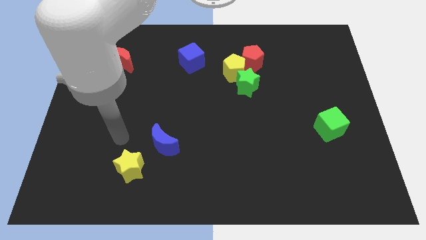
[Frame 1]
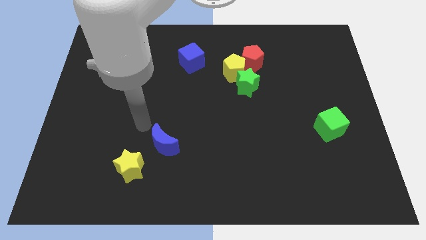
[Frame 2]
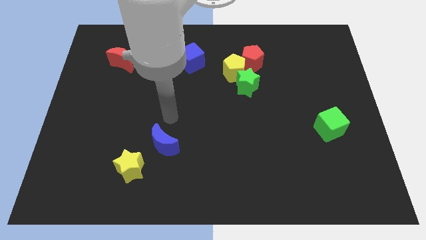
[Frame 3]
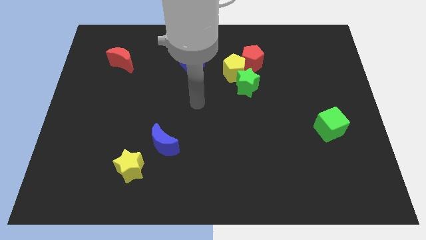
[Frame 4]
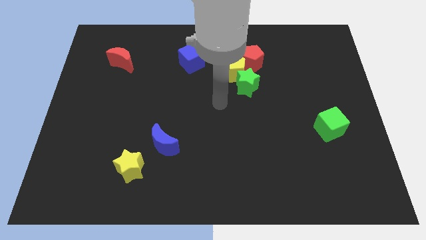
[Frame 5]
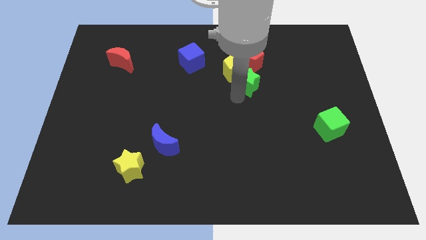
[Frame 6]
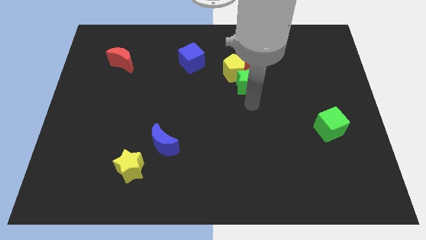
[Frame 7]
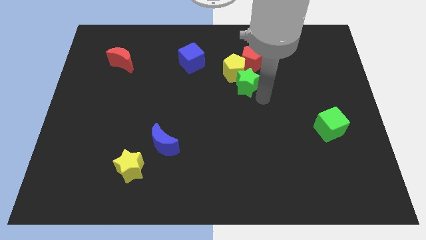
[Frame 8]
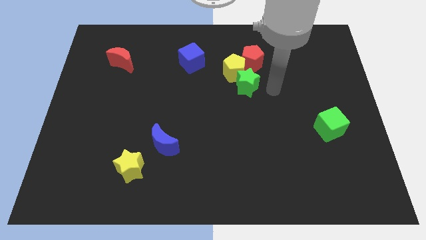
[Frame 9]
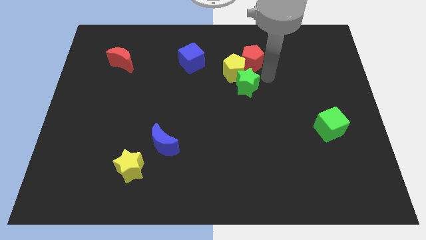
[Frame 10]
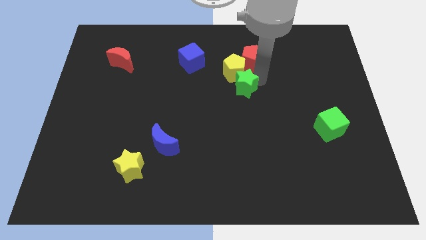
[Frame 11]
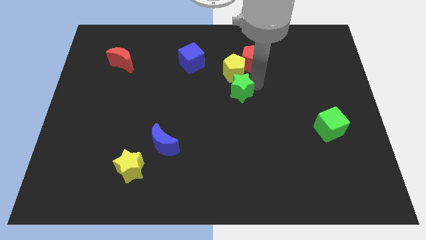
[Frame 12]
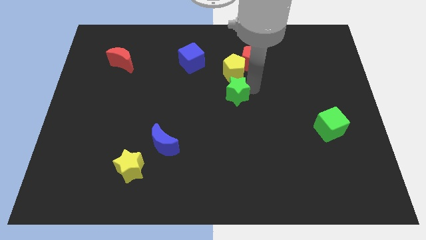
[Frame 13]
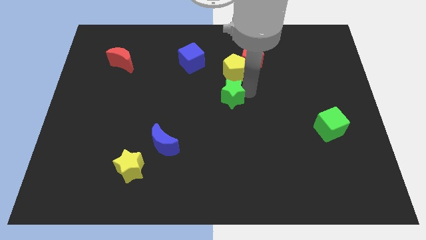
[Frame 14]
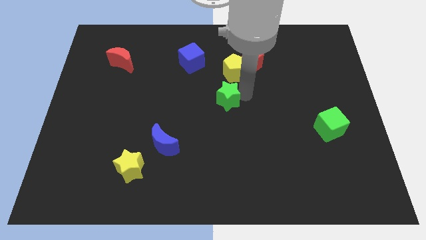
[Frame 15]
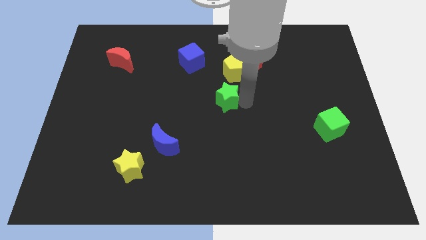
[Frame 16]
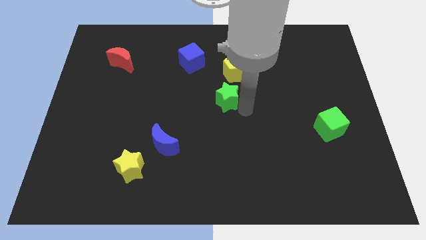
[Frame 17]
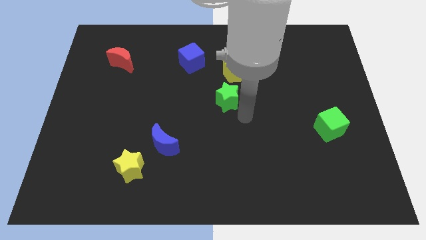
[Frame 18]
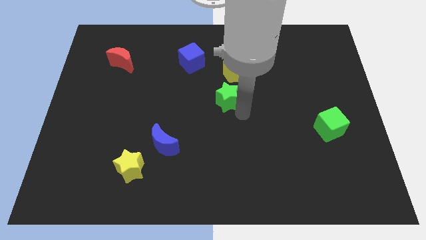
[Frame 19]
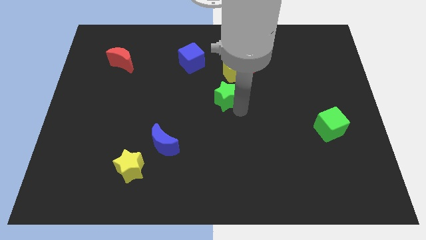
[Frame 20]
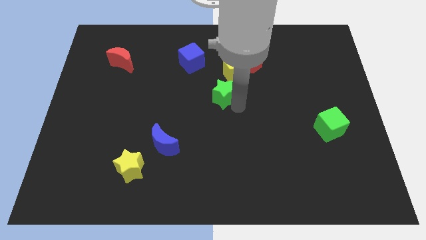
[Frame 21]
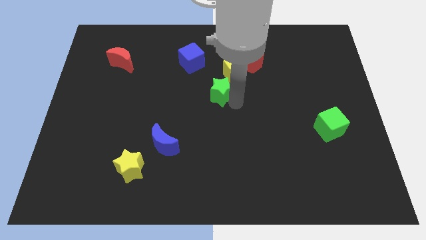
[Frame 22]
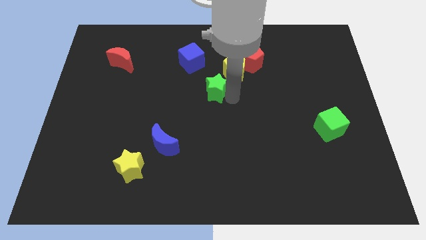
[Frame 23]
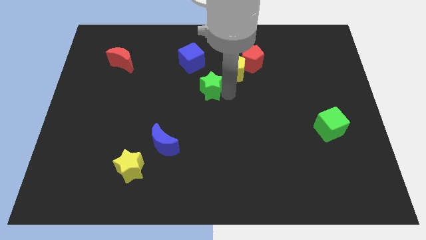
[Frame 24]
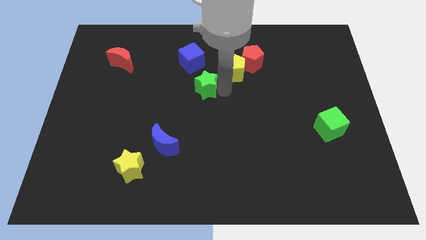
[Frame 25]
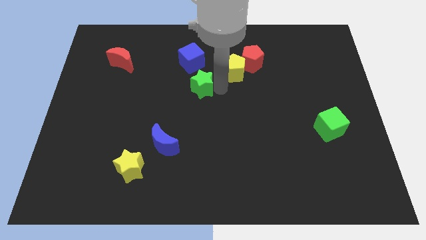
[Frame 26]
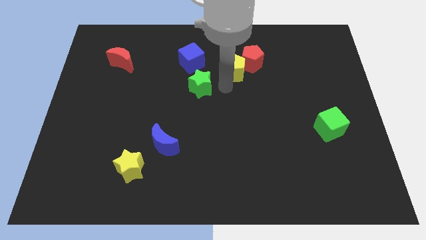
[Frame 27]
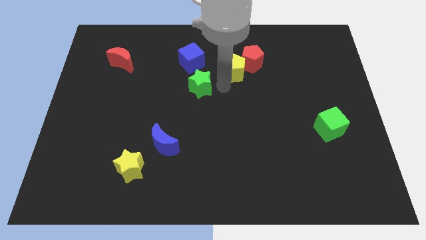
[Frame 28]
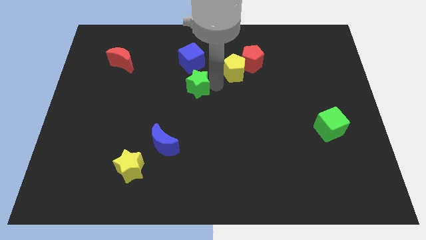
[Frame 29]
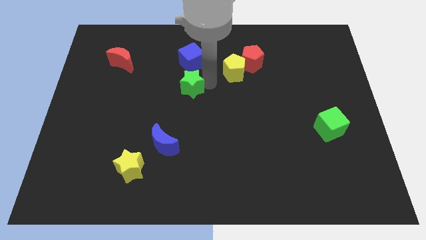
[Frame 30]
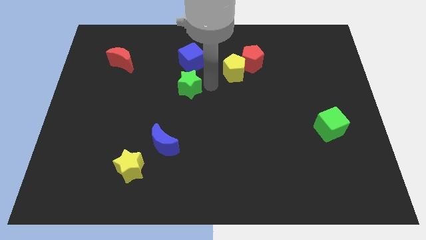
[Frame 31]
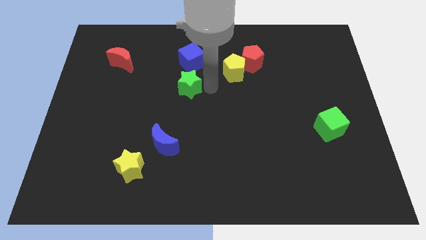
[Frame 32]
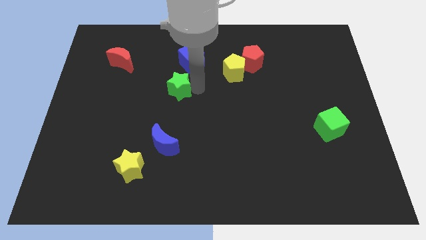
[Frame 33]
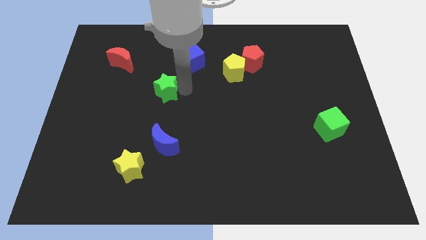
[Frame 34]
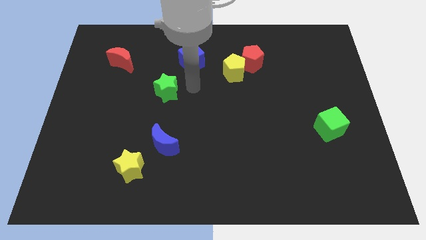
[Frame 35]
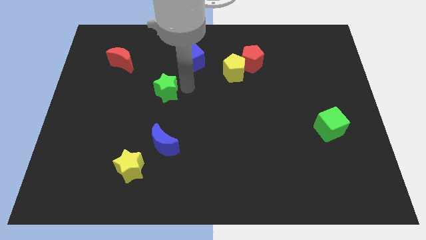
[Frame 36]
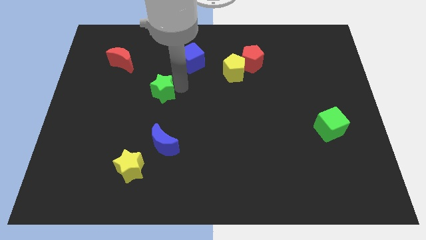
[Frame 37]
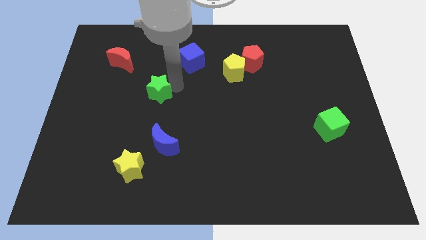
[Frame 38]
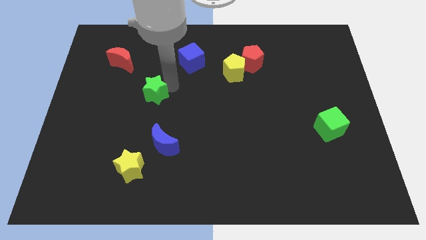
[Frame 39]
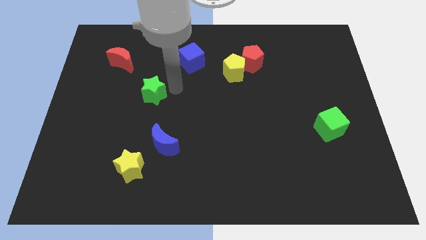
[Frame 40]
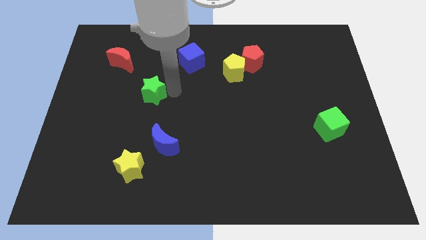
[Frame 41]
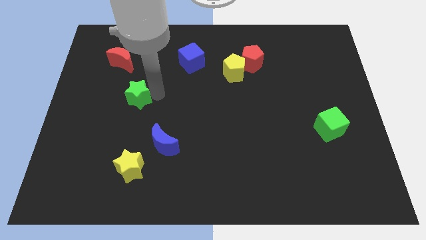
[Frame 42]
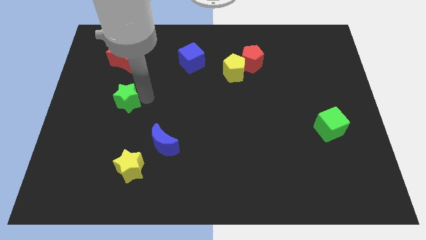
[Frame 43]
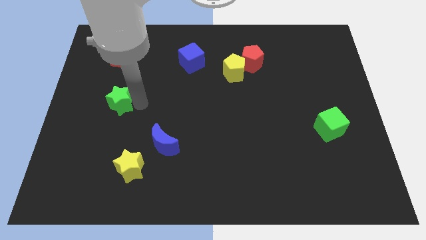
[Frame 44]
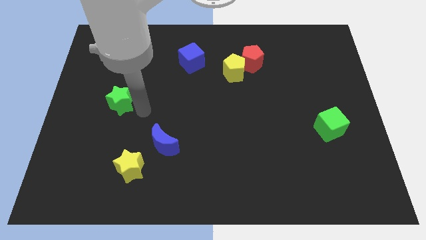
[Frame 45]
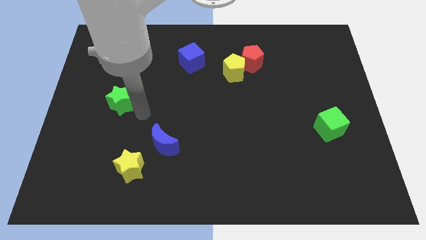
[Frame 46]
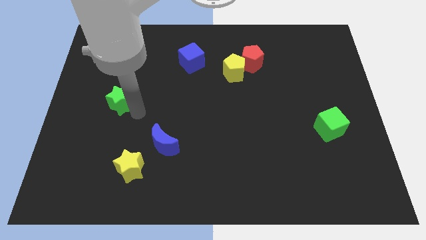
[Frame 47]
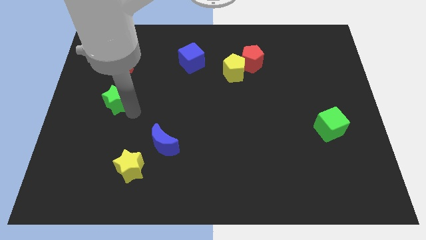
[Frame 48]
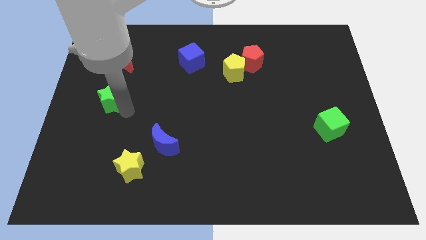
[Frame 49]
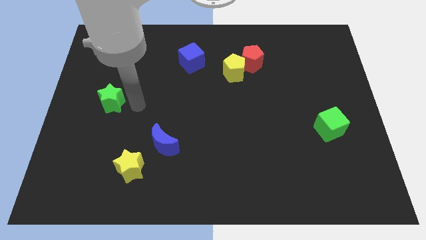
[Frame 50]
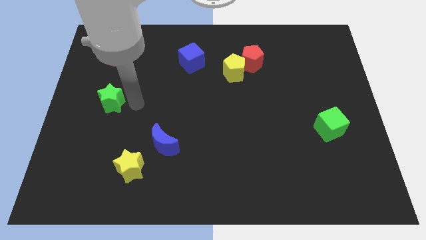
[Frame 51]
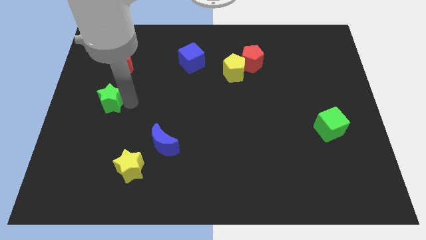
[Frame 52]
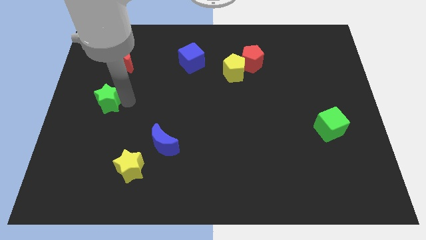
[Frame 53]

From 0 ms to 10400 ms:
move the green star to the left side

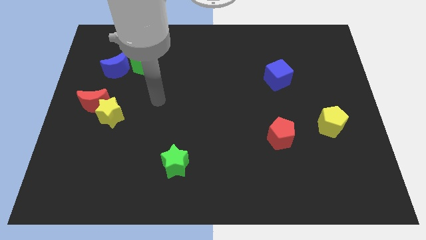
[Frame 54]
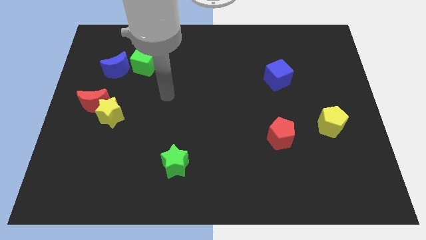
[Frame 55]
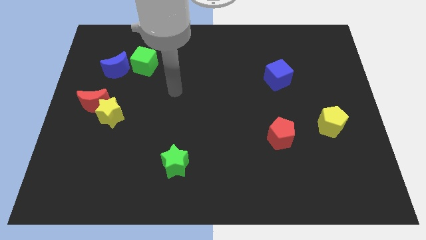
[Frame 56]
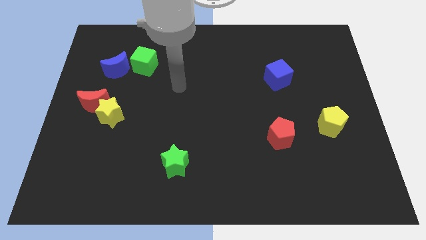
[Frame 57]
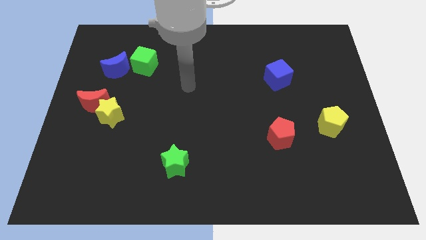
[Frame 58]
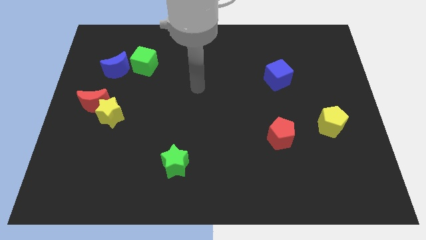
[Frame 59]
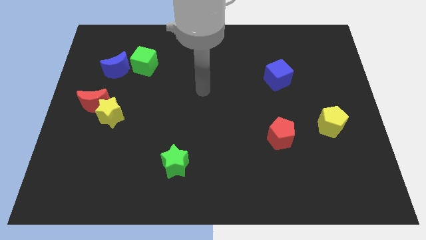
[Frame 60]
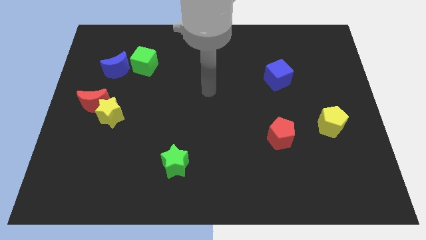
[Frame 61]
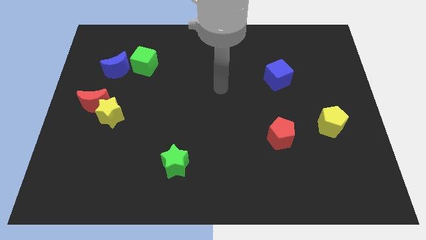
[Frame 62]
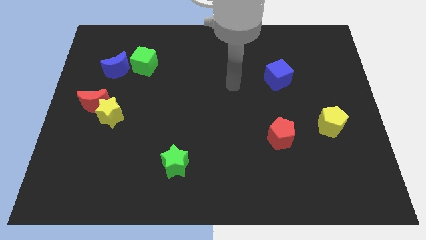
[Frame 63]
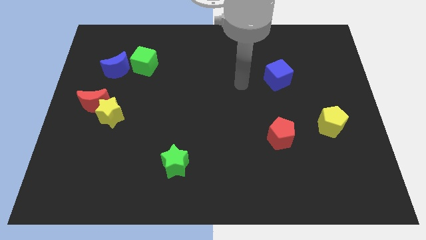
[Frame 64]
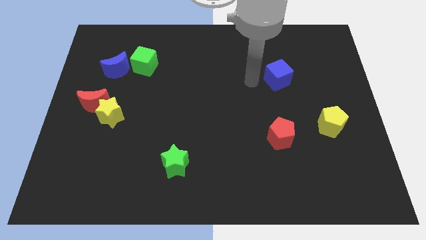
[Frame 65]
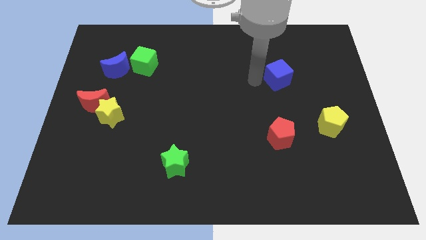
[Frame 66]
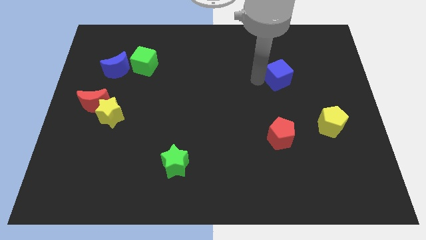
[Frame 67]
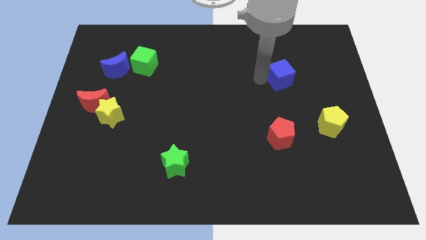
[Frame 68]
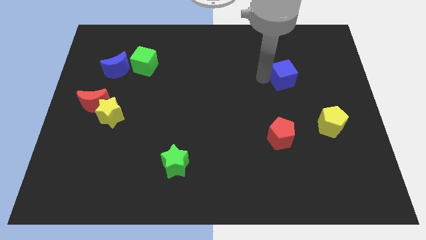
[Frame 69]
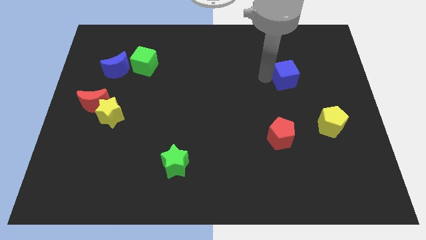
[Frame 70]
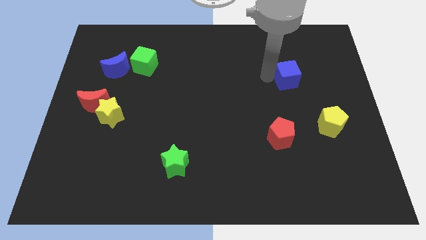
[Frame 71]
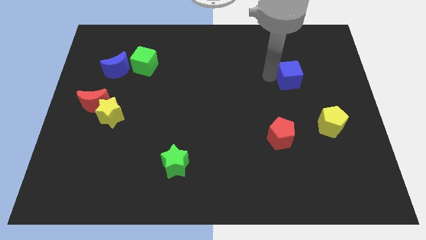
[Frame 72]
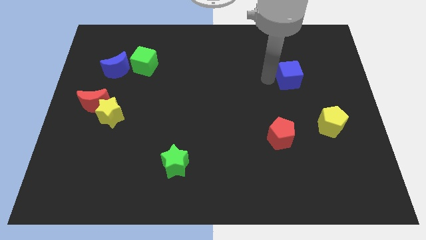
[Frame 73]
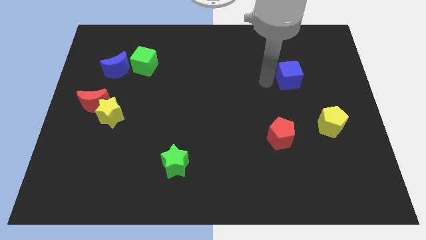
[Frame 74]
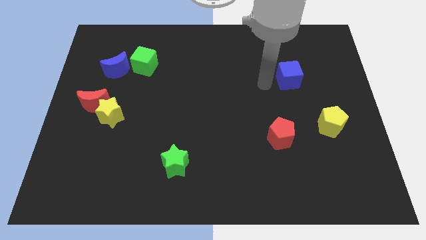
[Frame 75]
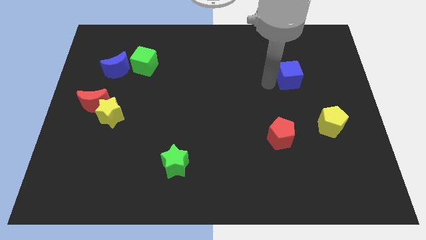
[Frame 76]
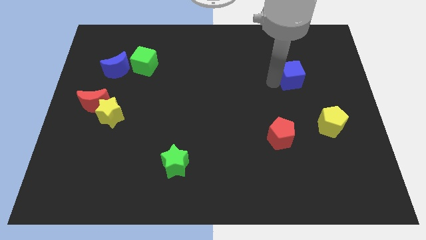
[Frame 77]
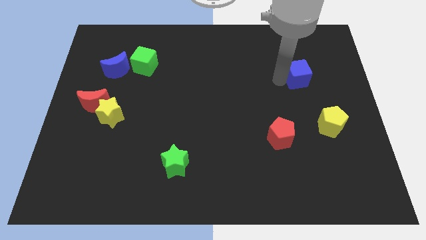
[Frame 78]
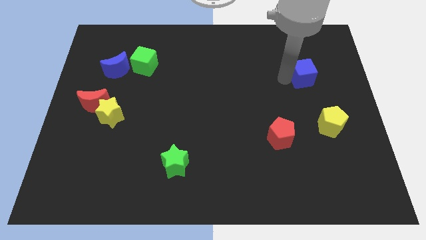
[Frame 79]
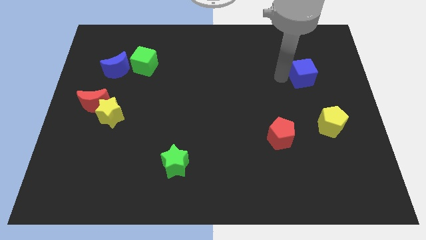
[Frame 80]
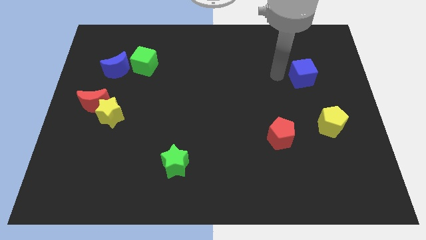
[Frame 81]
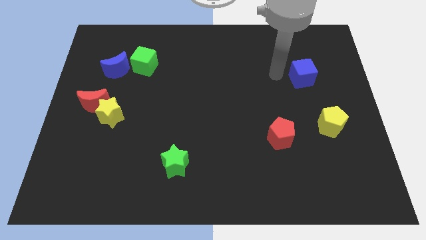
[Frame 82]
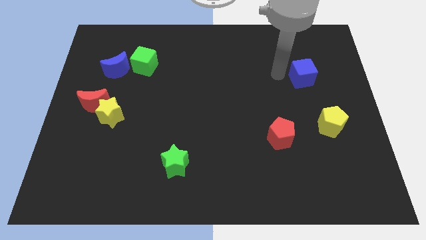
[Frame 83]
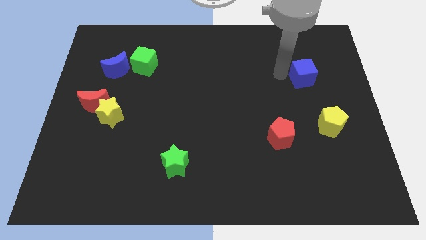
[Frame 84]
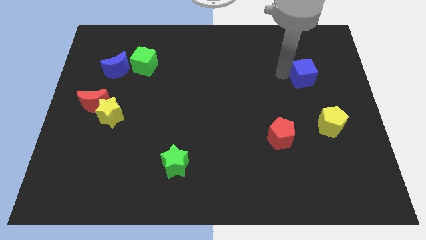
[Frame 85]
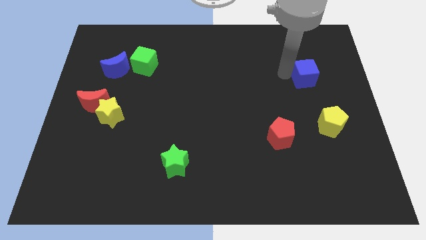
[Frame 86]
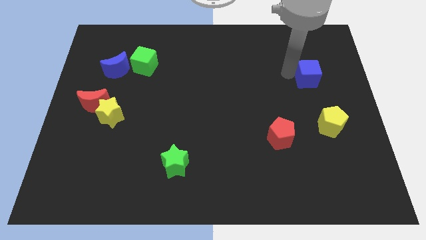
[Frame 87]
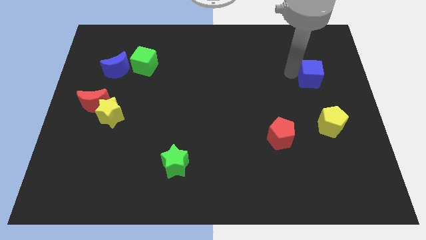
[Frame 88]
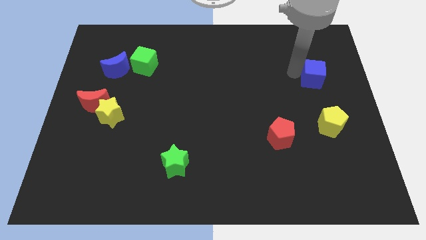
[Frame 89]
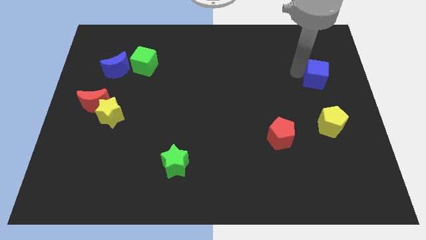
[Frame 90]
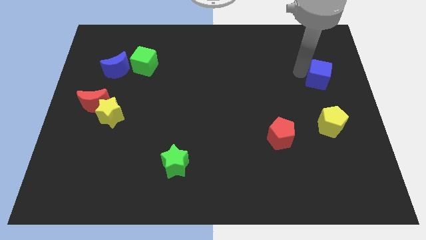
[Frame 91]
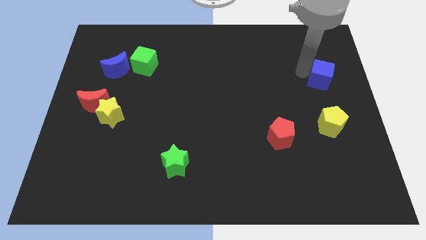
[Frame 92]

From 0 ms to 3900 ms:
move the blue cube to the right side of the board
